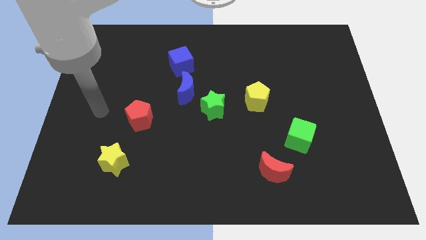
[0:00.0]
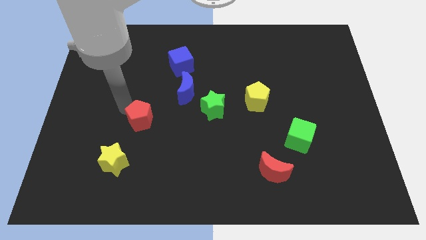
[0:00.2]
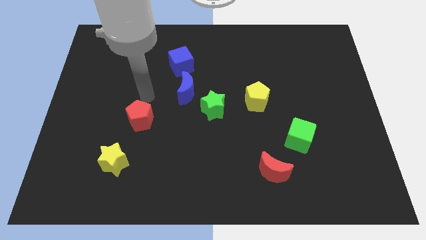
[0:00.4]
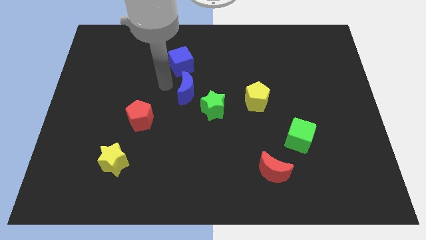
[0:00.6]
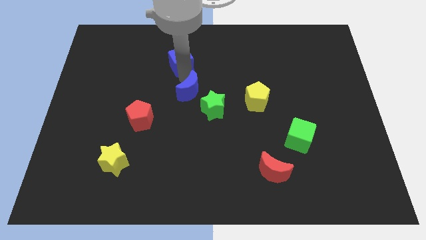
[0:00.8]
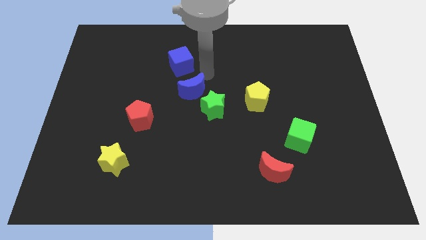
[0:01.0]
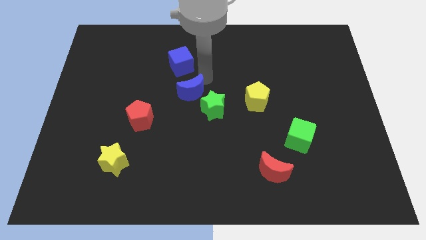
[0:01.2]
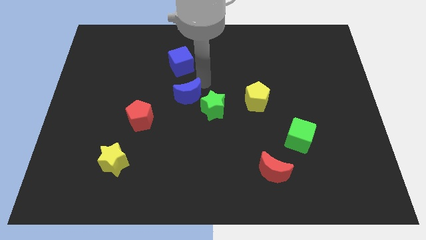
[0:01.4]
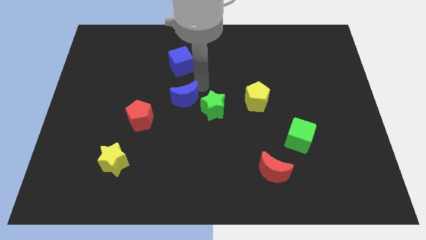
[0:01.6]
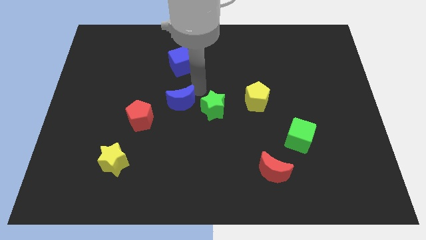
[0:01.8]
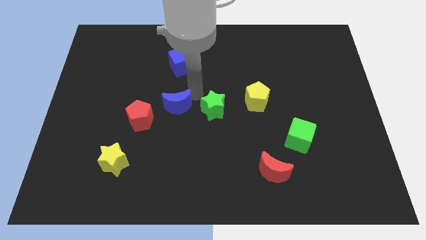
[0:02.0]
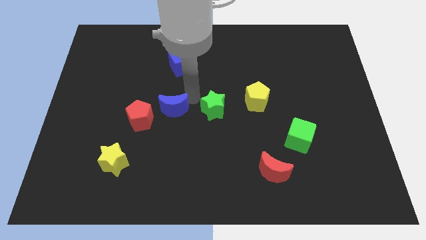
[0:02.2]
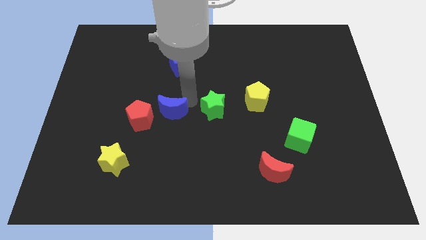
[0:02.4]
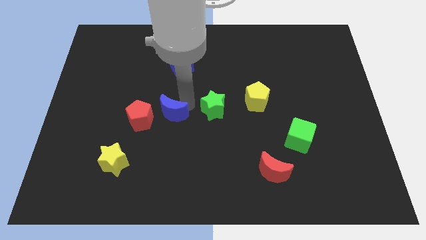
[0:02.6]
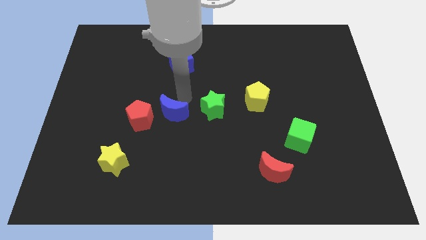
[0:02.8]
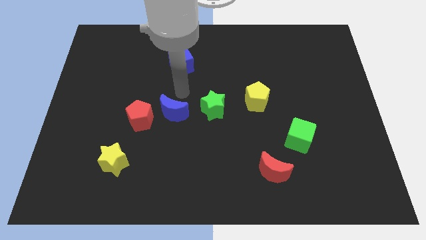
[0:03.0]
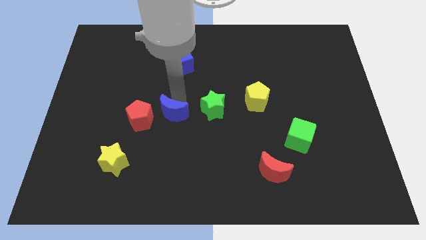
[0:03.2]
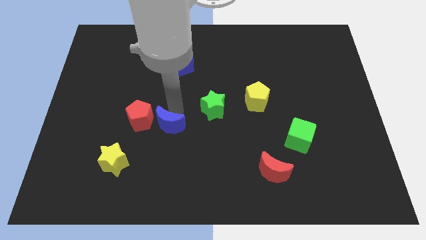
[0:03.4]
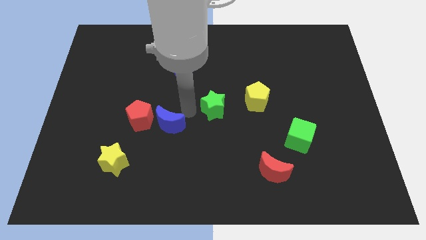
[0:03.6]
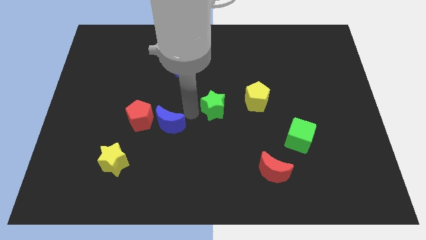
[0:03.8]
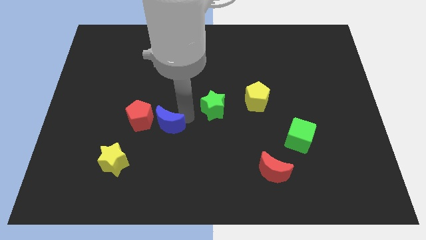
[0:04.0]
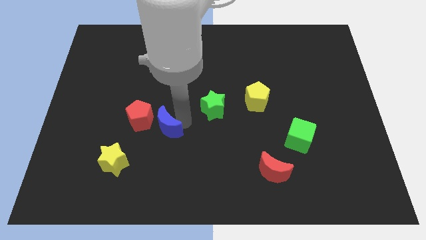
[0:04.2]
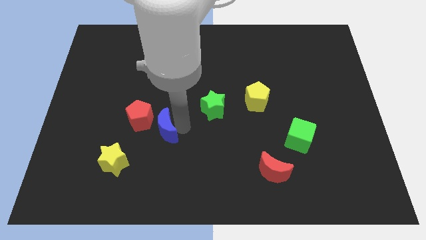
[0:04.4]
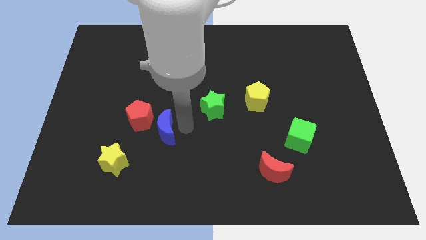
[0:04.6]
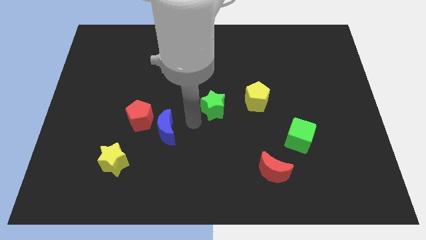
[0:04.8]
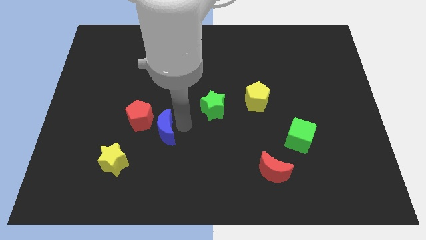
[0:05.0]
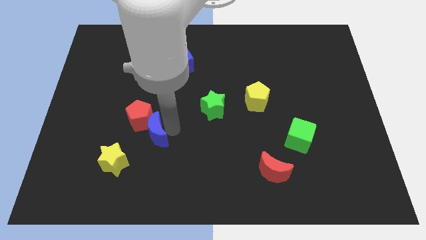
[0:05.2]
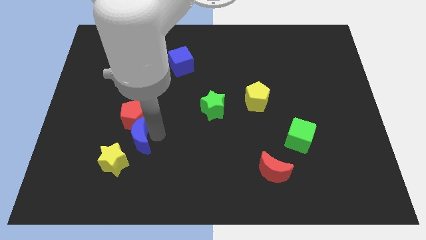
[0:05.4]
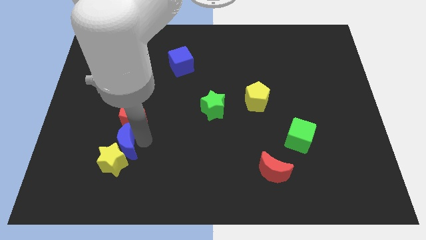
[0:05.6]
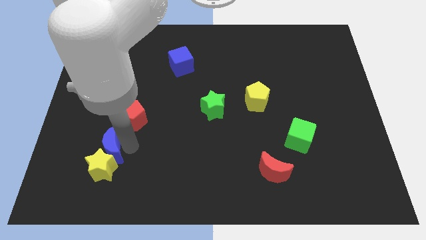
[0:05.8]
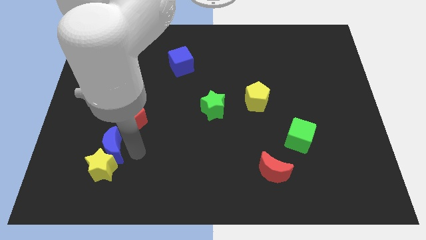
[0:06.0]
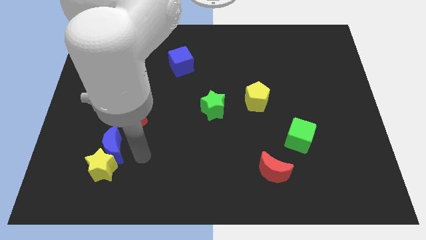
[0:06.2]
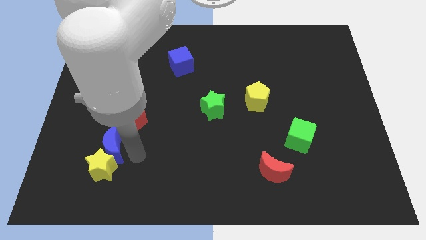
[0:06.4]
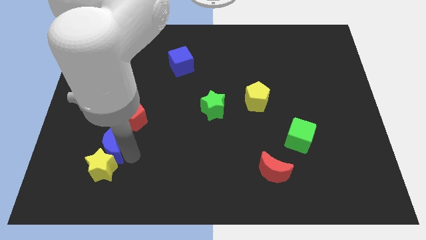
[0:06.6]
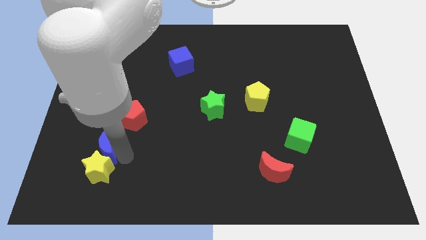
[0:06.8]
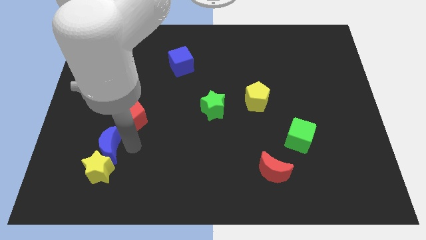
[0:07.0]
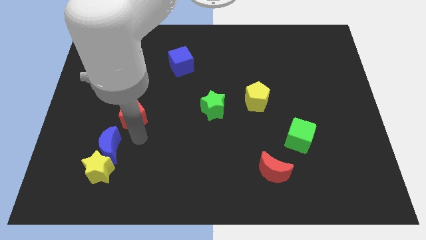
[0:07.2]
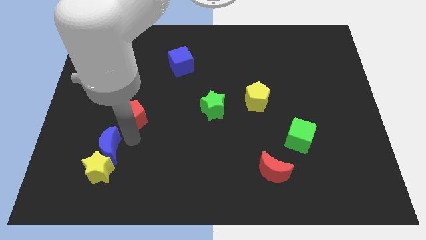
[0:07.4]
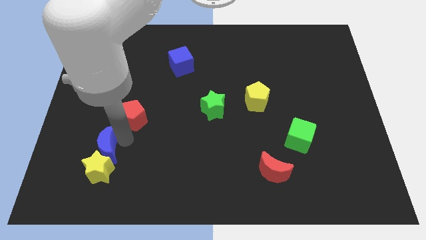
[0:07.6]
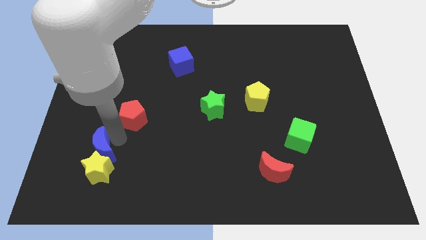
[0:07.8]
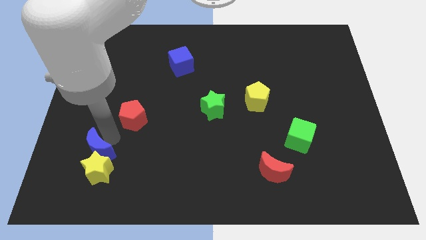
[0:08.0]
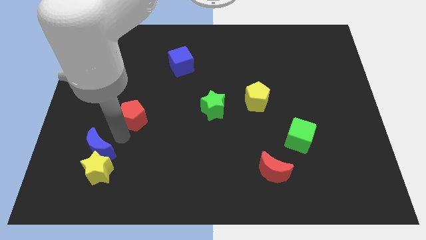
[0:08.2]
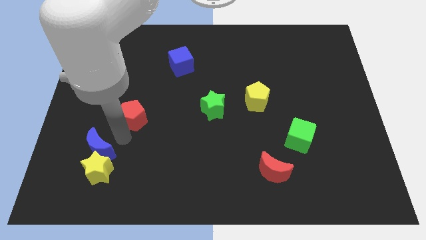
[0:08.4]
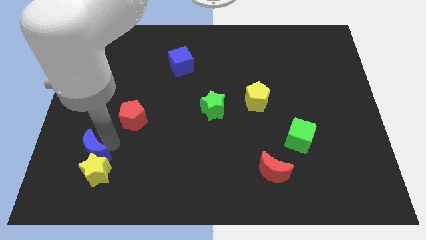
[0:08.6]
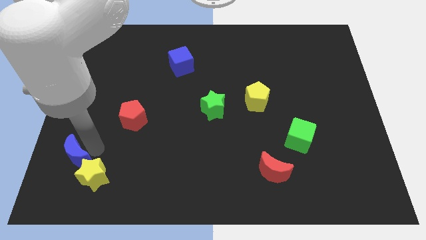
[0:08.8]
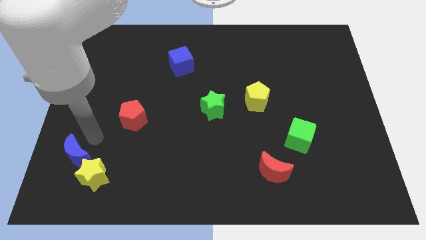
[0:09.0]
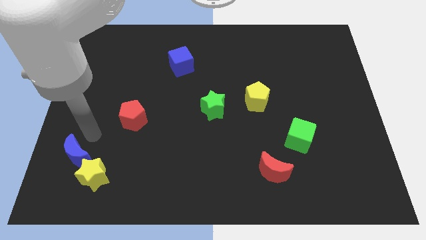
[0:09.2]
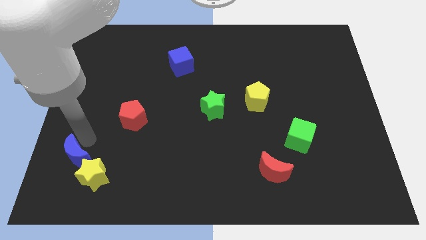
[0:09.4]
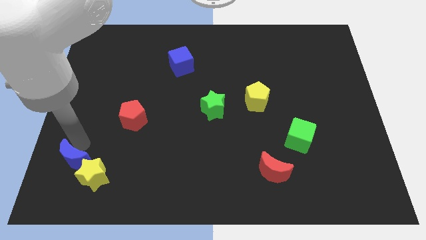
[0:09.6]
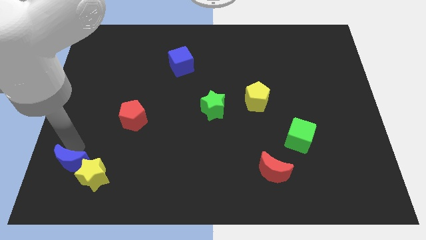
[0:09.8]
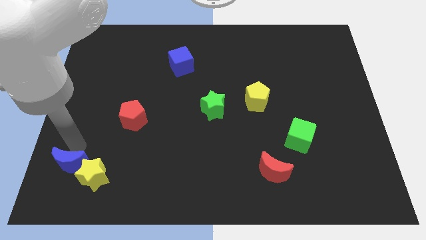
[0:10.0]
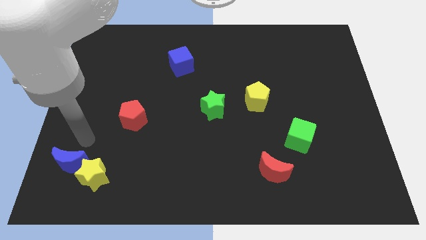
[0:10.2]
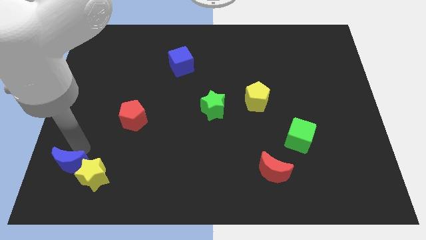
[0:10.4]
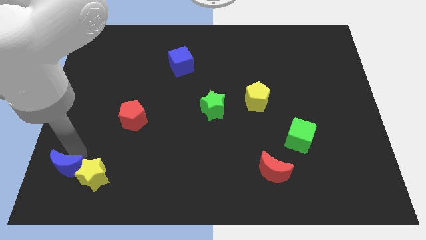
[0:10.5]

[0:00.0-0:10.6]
put the blue moon to the bottom left corner

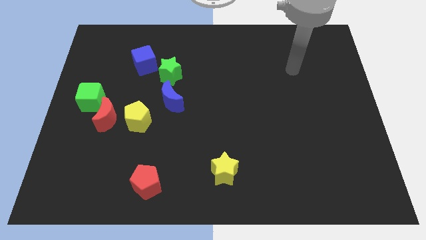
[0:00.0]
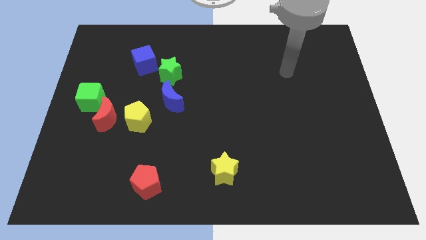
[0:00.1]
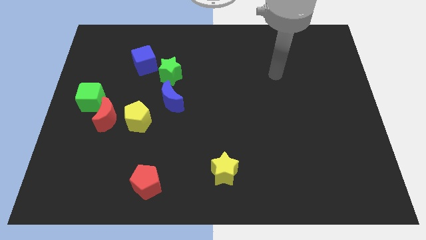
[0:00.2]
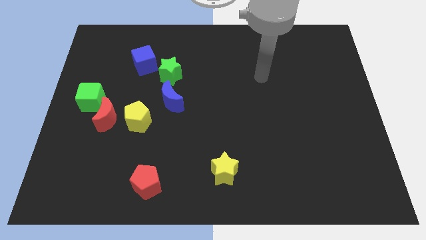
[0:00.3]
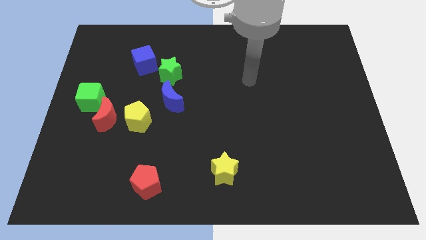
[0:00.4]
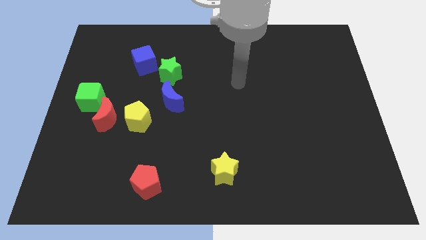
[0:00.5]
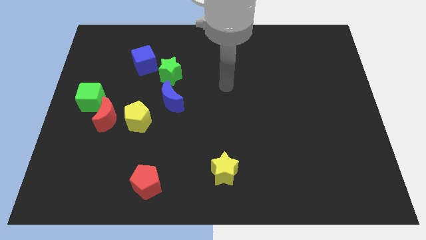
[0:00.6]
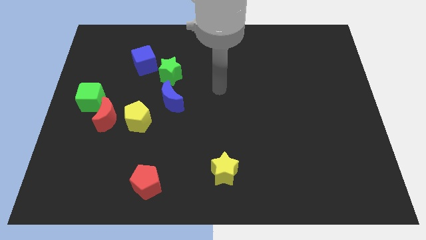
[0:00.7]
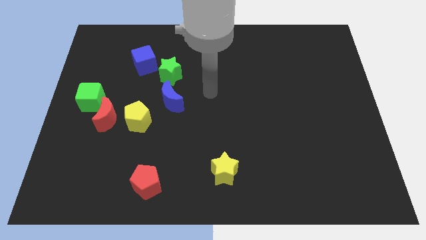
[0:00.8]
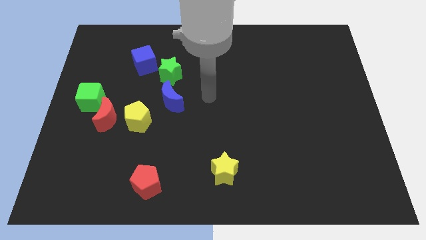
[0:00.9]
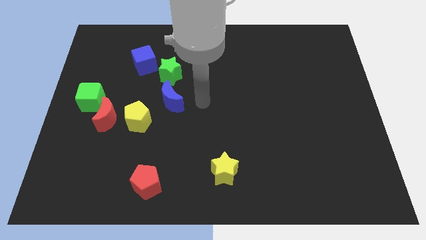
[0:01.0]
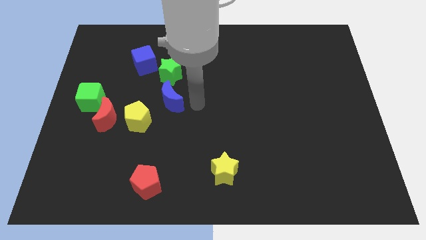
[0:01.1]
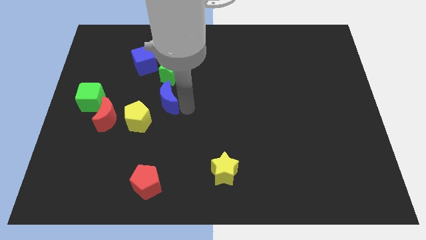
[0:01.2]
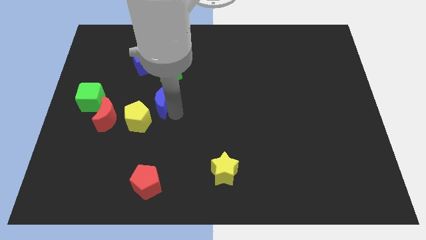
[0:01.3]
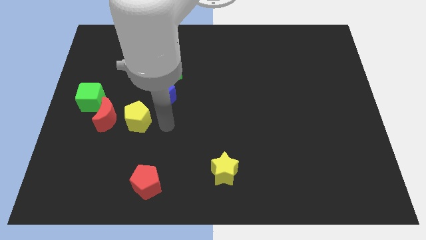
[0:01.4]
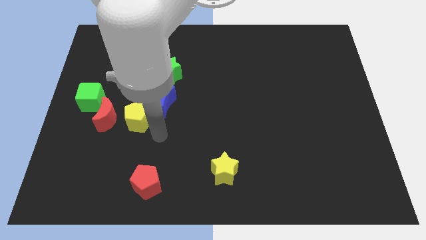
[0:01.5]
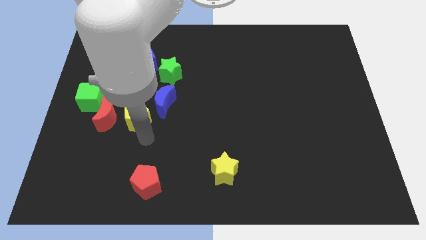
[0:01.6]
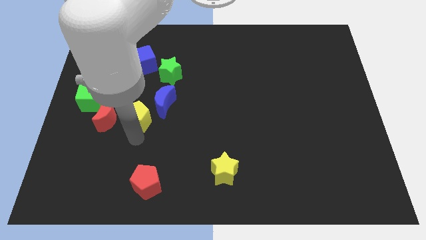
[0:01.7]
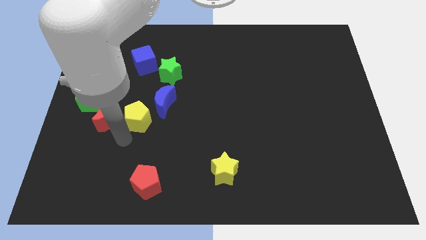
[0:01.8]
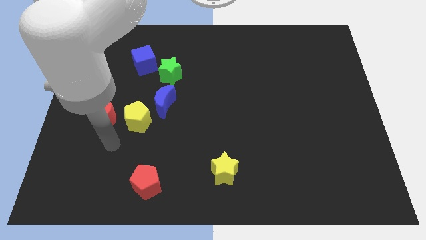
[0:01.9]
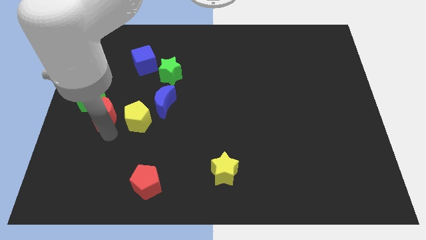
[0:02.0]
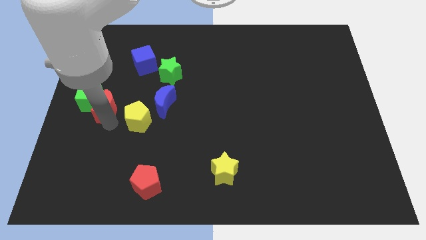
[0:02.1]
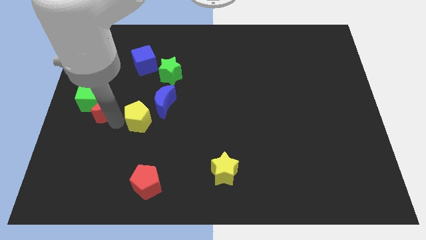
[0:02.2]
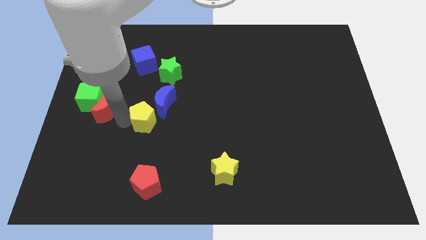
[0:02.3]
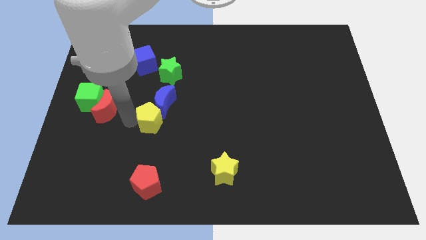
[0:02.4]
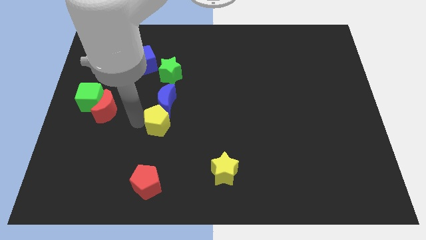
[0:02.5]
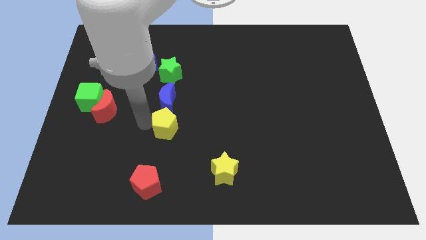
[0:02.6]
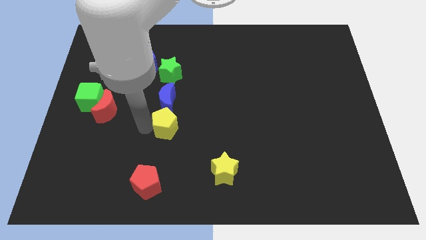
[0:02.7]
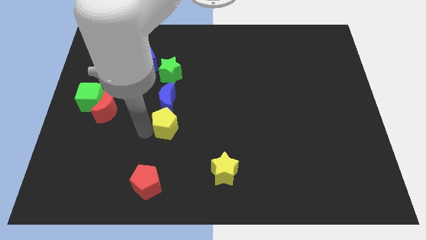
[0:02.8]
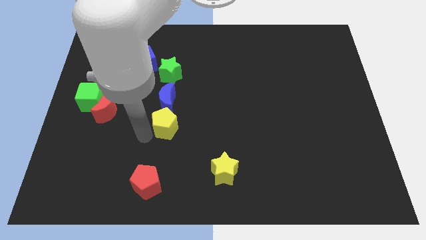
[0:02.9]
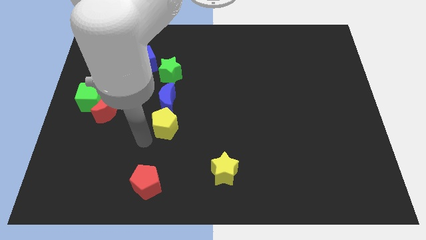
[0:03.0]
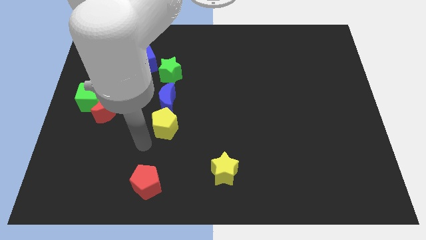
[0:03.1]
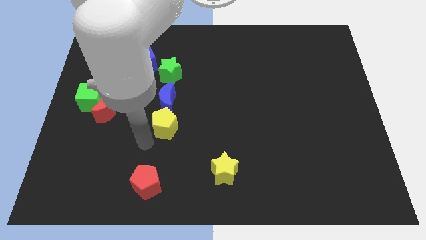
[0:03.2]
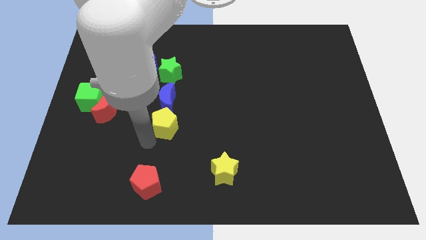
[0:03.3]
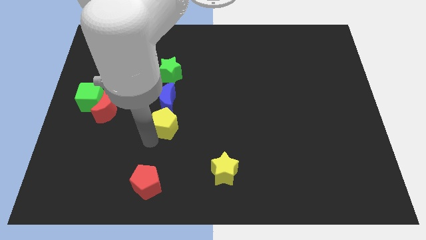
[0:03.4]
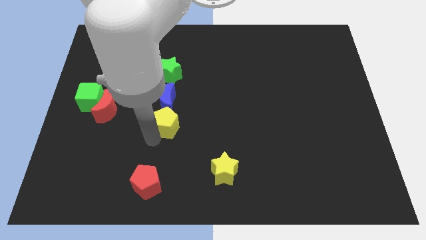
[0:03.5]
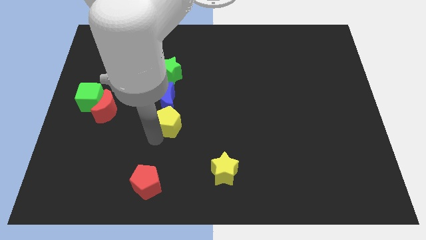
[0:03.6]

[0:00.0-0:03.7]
push the yellow pentagon to the center of the board
